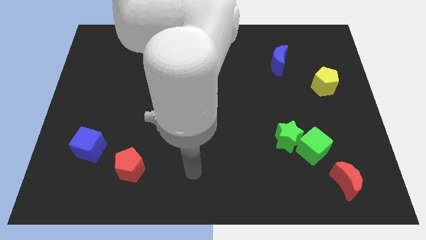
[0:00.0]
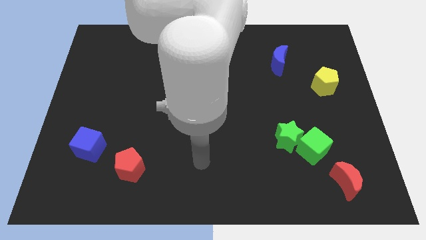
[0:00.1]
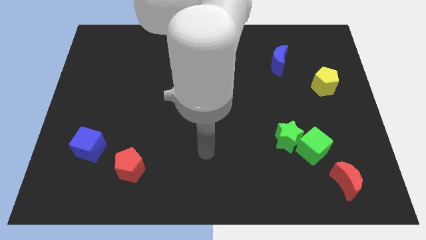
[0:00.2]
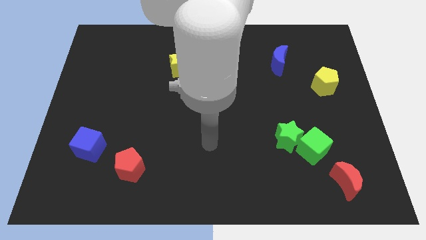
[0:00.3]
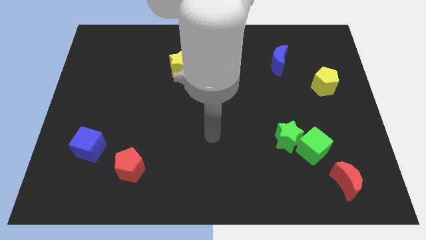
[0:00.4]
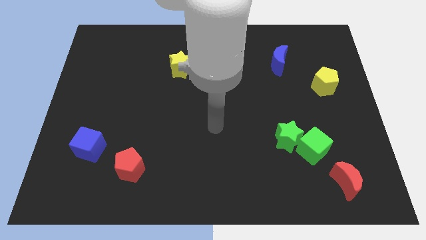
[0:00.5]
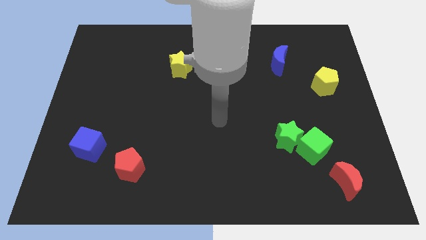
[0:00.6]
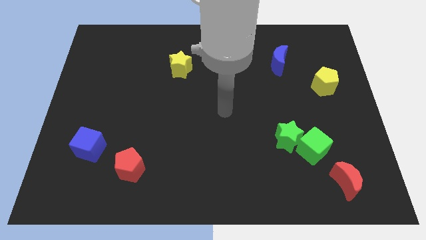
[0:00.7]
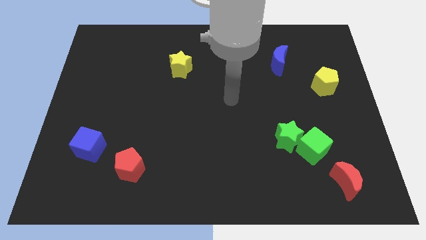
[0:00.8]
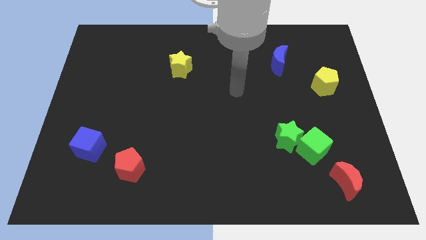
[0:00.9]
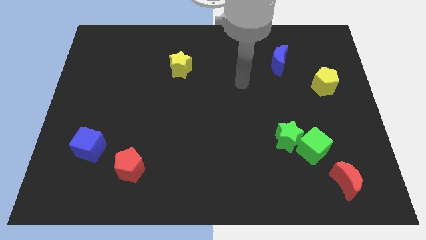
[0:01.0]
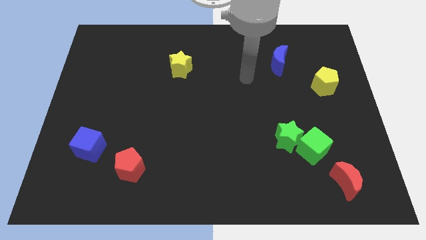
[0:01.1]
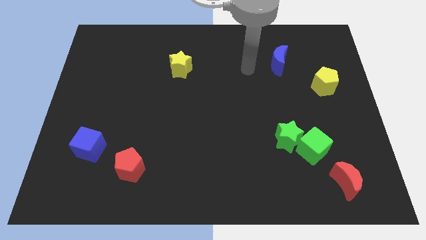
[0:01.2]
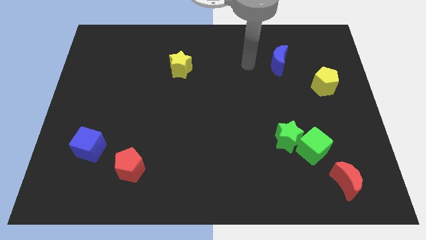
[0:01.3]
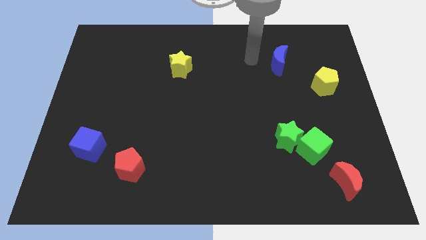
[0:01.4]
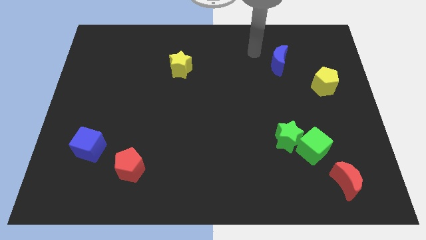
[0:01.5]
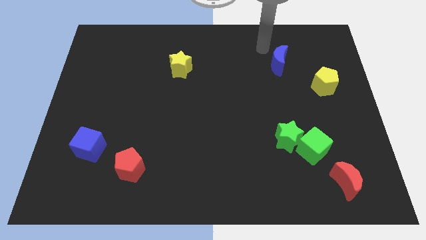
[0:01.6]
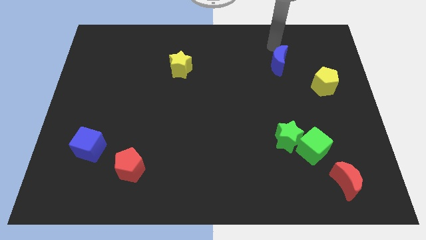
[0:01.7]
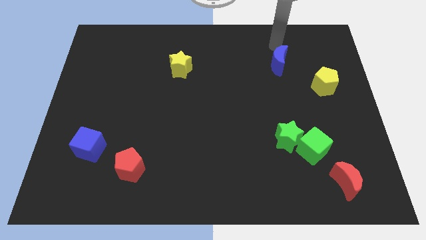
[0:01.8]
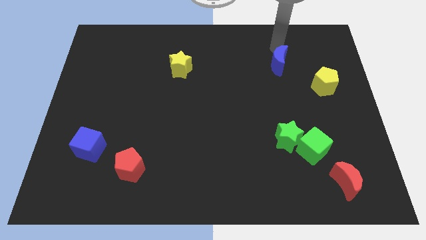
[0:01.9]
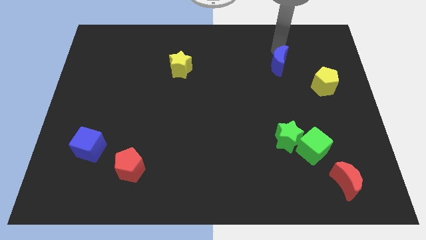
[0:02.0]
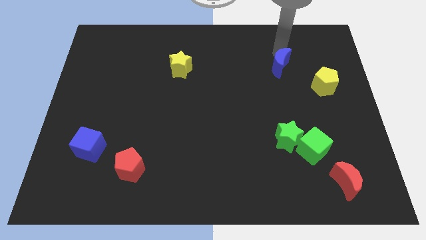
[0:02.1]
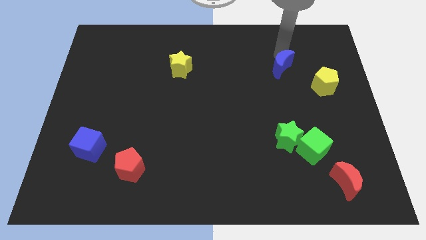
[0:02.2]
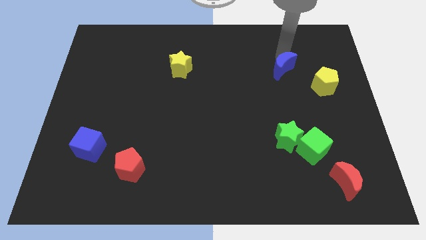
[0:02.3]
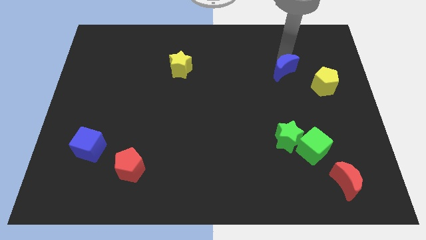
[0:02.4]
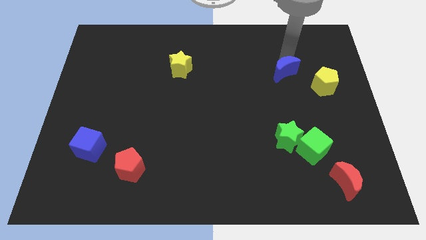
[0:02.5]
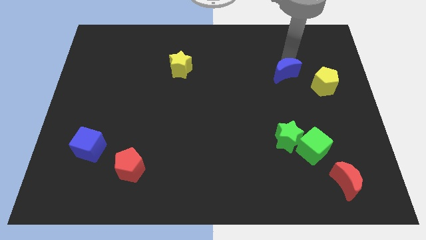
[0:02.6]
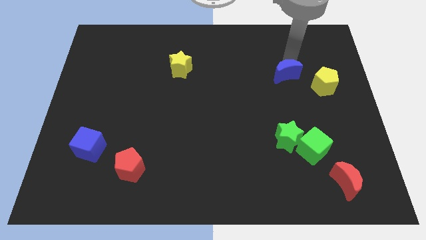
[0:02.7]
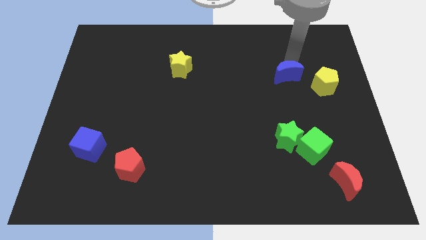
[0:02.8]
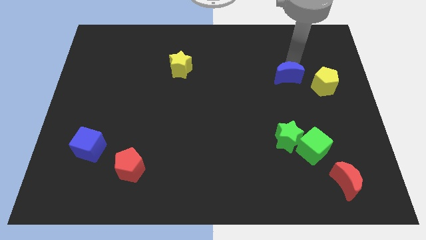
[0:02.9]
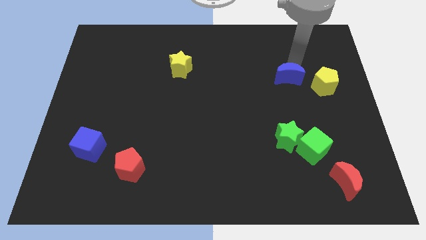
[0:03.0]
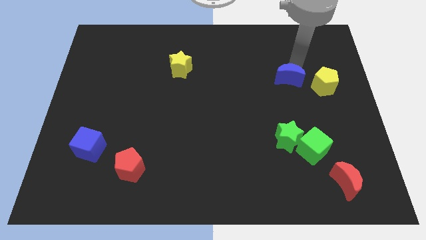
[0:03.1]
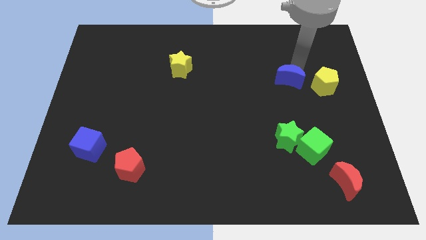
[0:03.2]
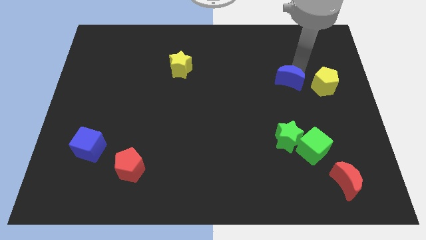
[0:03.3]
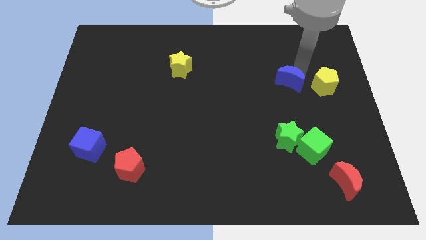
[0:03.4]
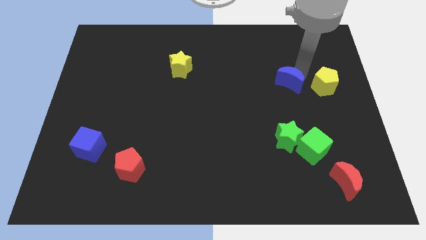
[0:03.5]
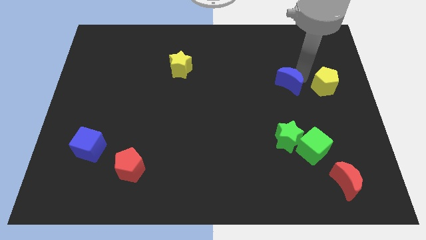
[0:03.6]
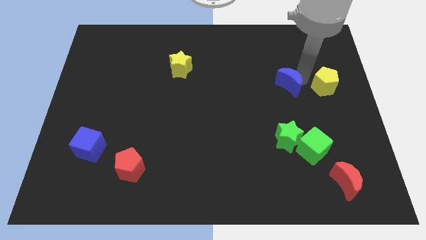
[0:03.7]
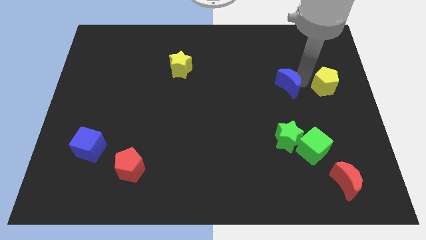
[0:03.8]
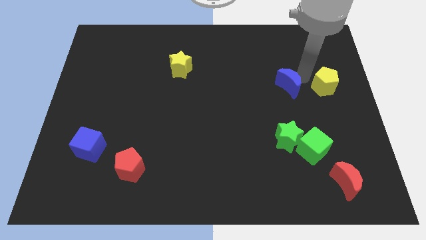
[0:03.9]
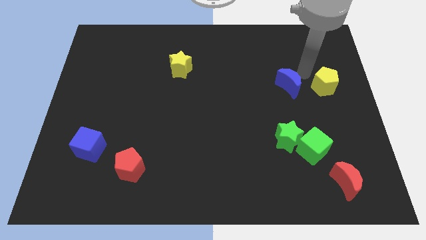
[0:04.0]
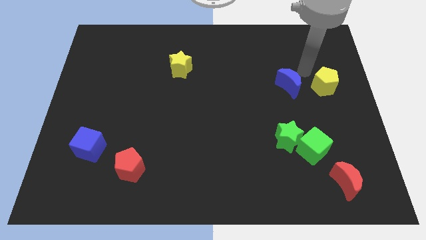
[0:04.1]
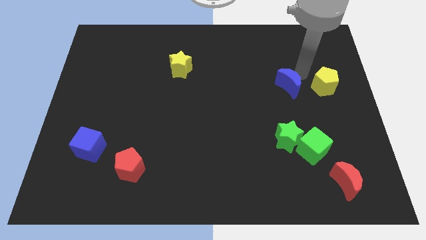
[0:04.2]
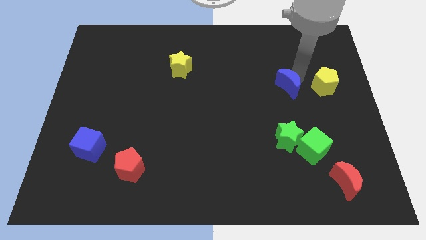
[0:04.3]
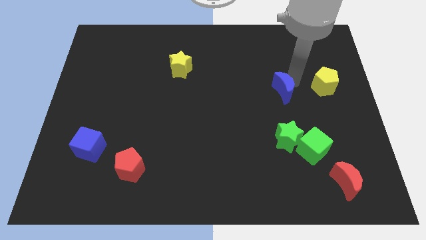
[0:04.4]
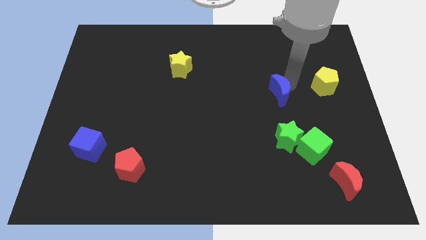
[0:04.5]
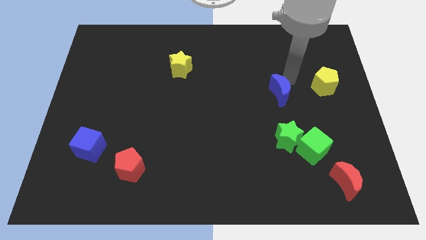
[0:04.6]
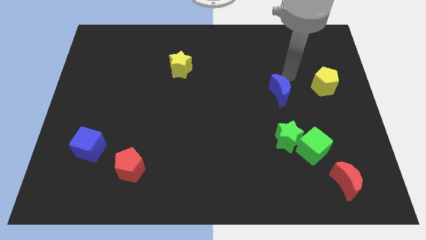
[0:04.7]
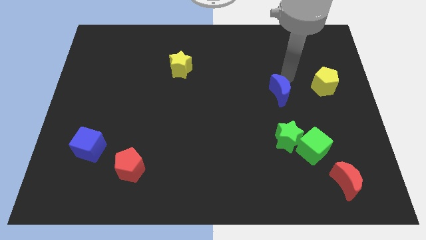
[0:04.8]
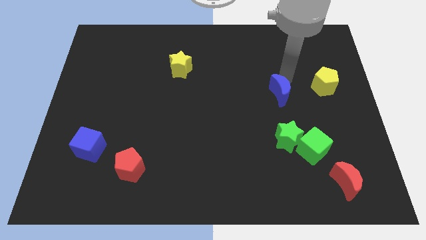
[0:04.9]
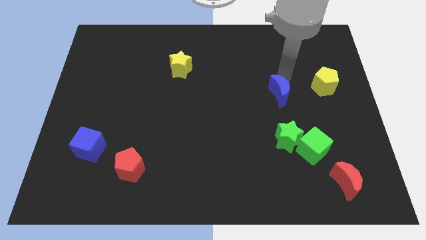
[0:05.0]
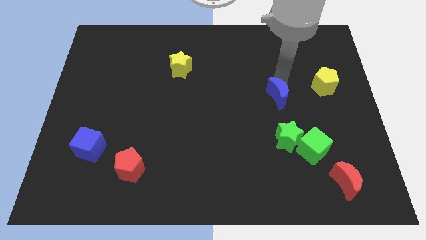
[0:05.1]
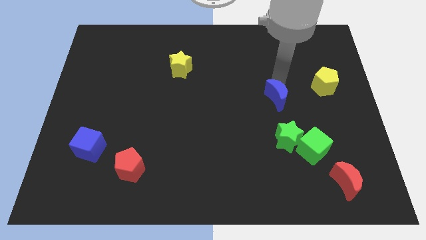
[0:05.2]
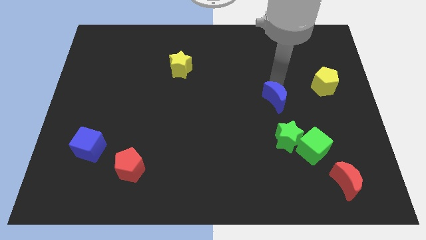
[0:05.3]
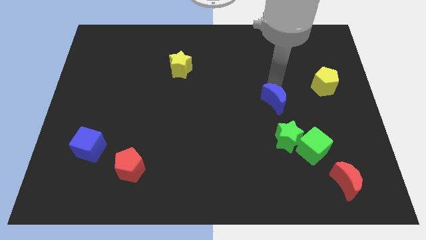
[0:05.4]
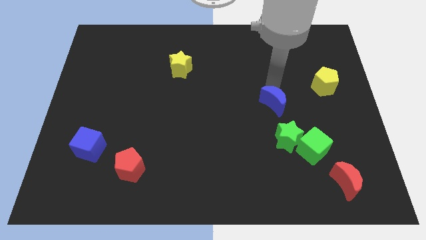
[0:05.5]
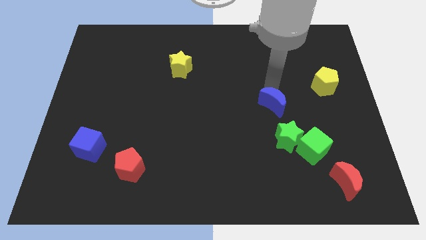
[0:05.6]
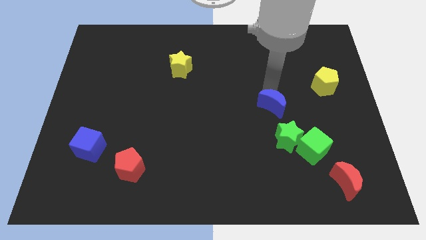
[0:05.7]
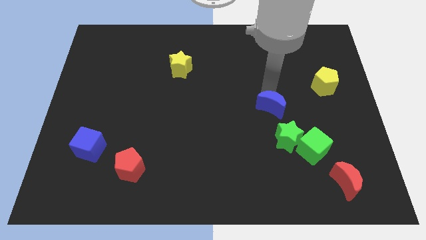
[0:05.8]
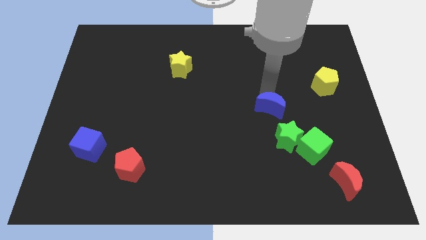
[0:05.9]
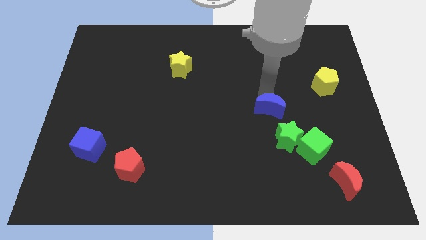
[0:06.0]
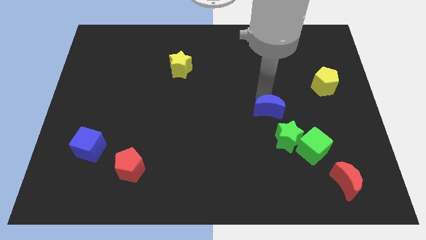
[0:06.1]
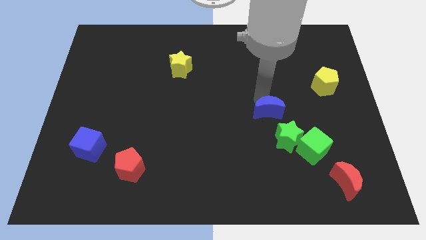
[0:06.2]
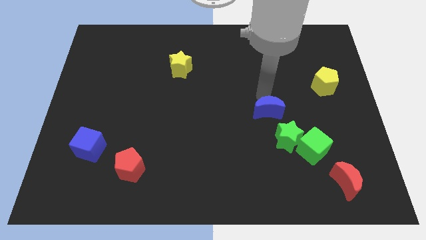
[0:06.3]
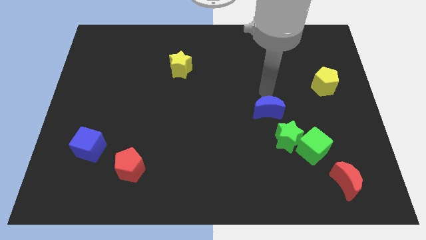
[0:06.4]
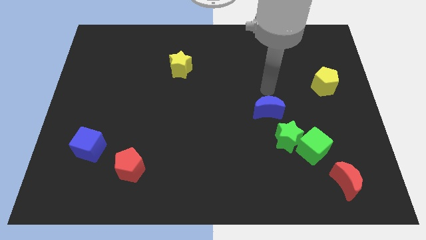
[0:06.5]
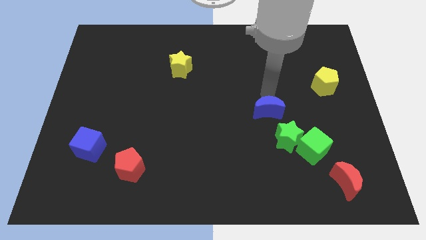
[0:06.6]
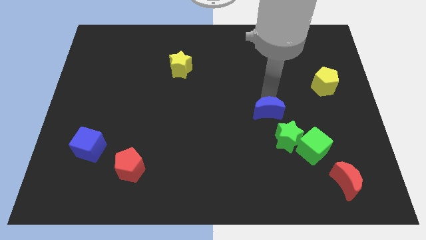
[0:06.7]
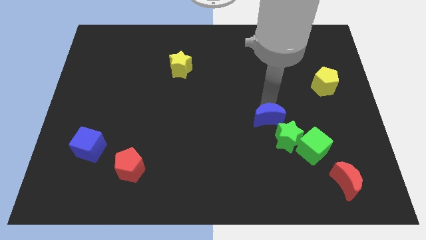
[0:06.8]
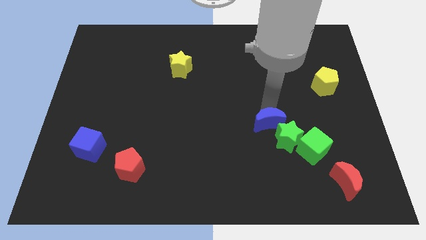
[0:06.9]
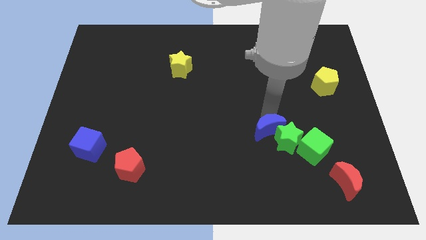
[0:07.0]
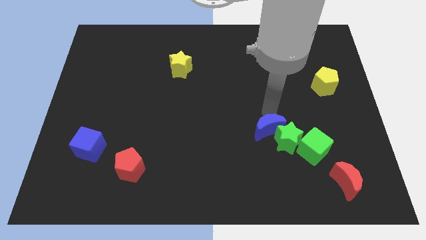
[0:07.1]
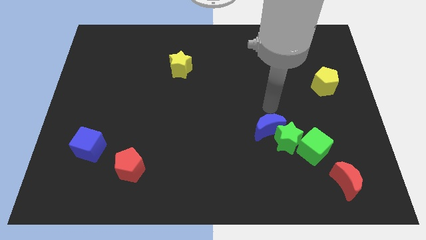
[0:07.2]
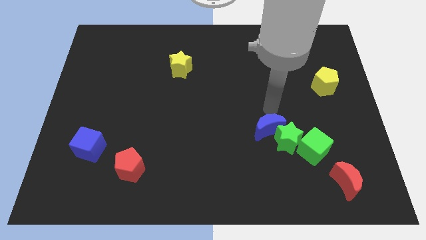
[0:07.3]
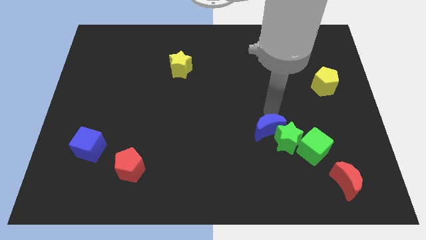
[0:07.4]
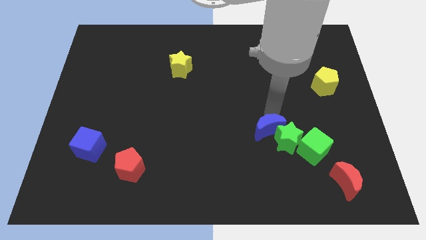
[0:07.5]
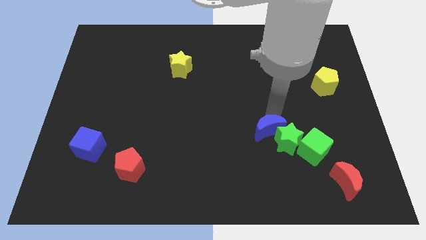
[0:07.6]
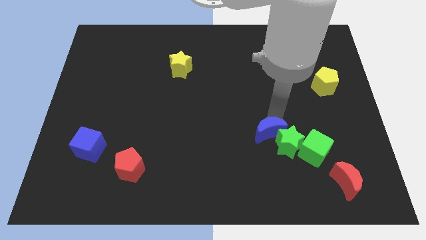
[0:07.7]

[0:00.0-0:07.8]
put the blue moon to the left of the green cube

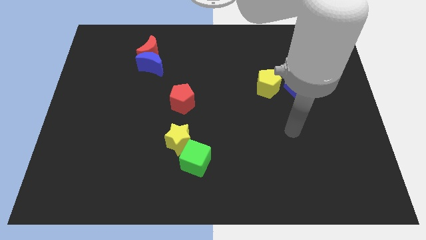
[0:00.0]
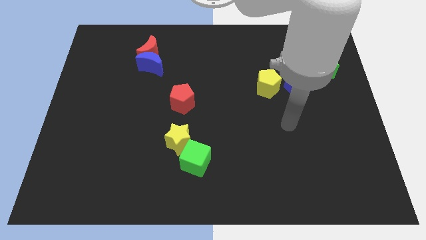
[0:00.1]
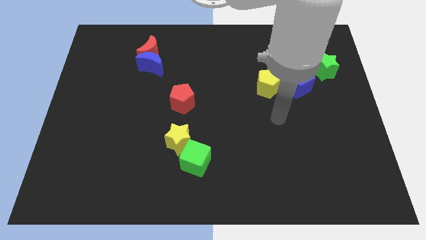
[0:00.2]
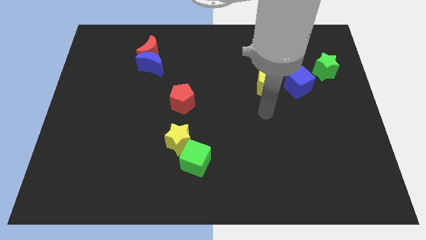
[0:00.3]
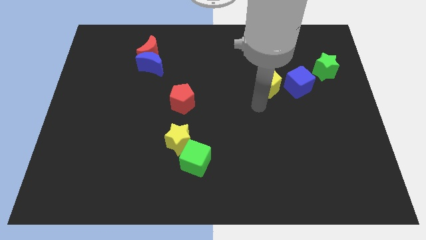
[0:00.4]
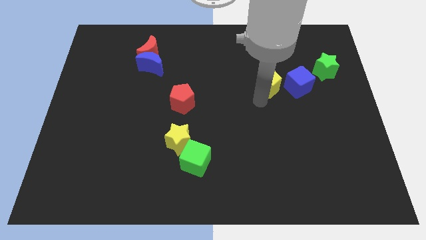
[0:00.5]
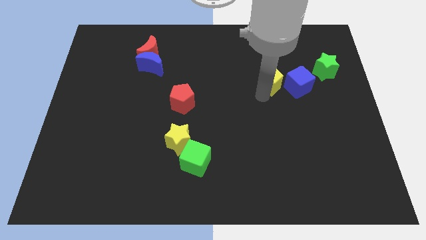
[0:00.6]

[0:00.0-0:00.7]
push the yellow pentagon diagonally up and to the left of the blue cube
